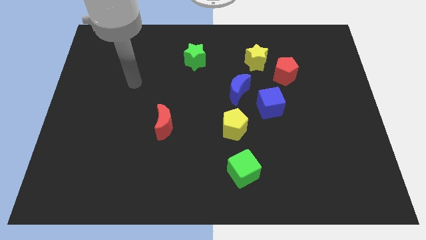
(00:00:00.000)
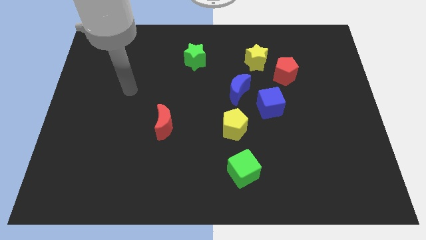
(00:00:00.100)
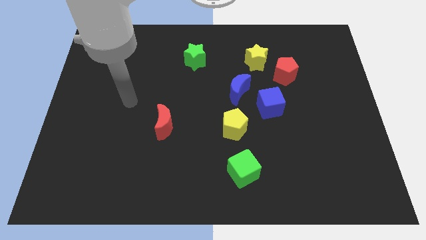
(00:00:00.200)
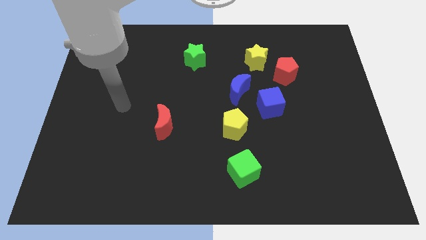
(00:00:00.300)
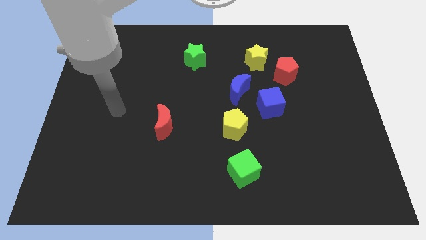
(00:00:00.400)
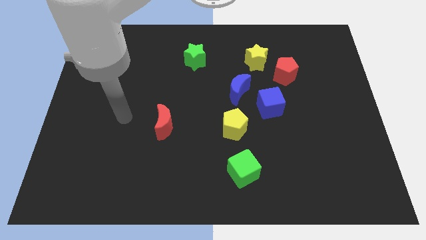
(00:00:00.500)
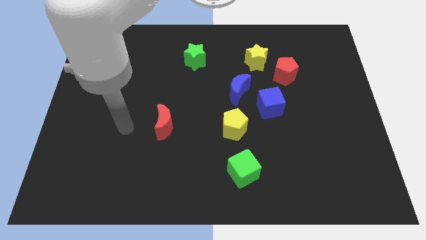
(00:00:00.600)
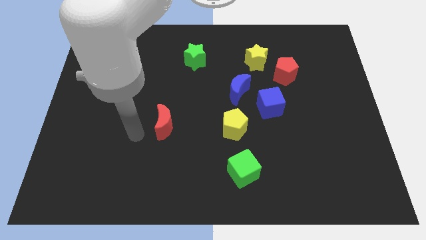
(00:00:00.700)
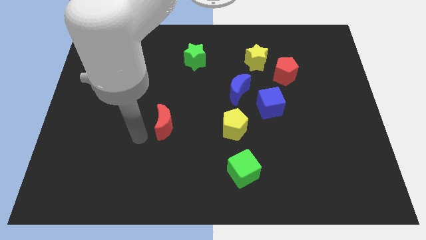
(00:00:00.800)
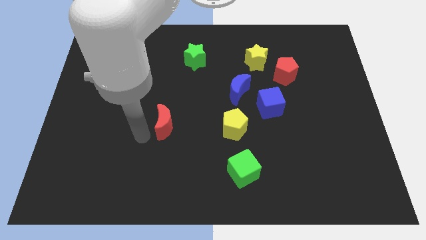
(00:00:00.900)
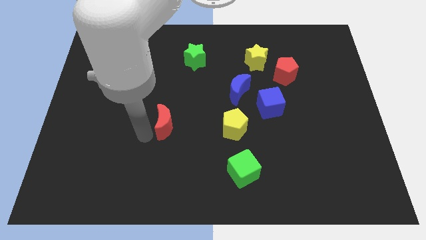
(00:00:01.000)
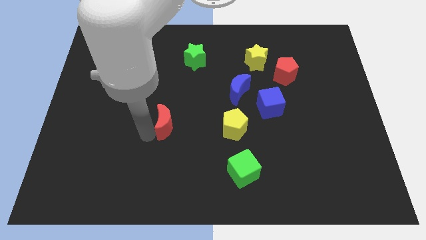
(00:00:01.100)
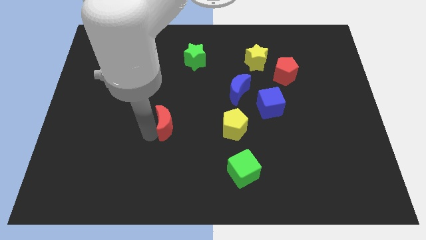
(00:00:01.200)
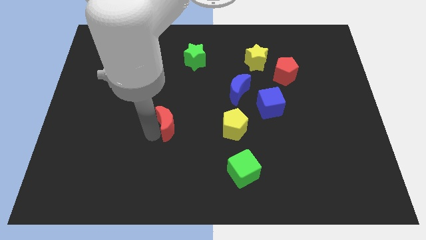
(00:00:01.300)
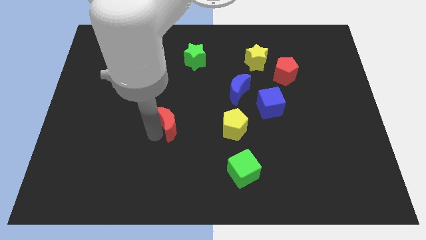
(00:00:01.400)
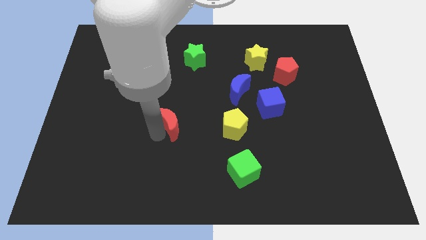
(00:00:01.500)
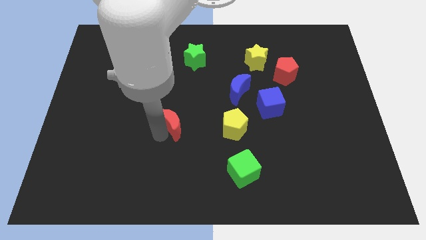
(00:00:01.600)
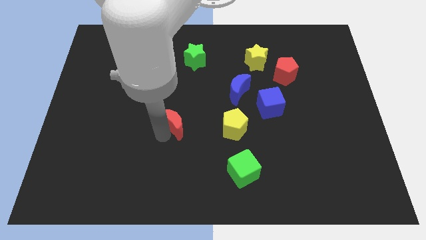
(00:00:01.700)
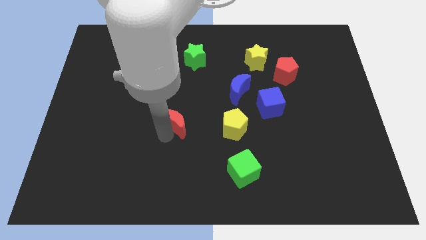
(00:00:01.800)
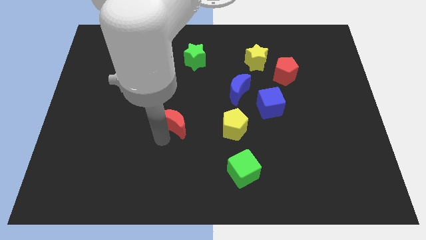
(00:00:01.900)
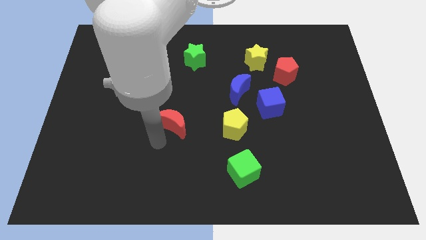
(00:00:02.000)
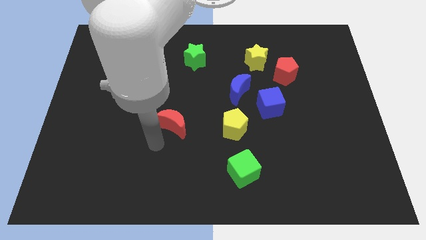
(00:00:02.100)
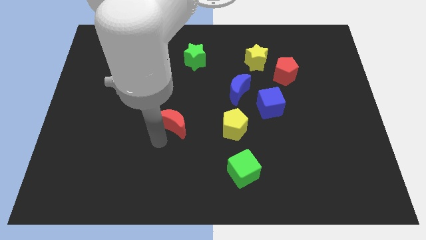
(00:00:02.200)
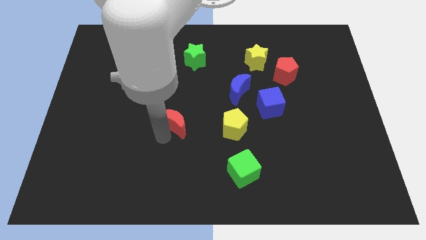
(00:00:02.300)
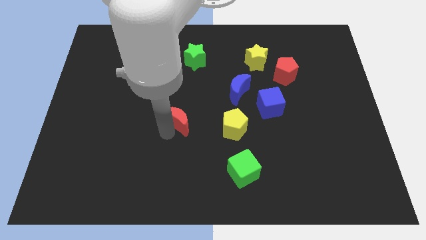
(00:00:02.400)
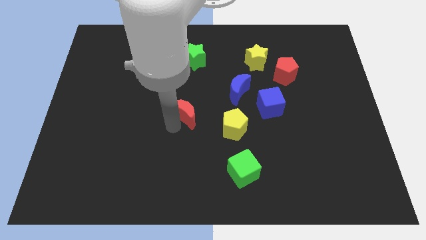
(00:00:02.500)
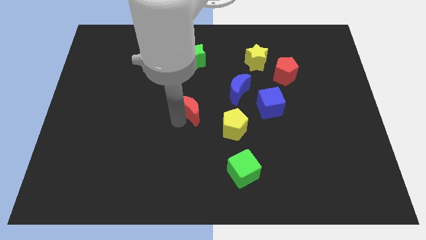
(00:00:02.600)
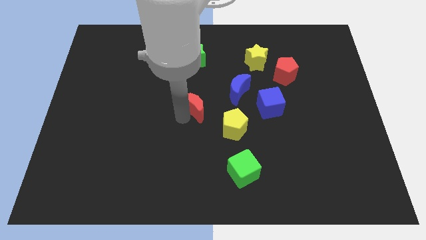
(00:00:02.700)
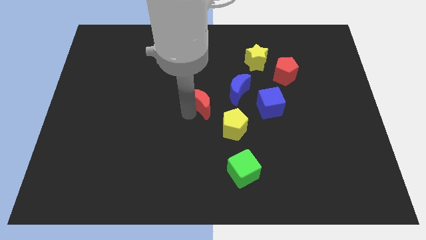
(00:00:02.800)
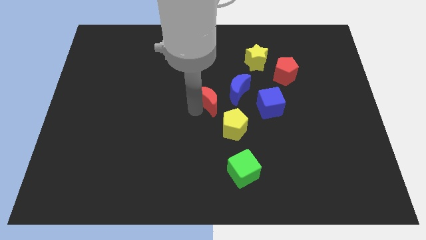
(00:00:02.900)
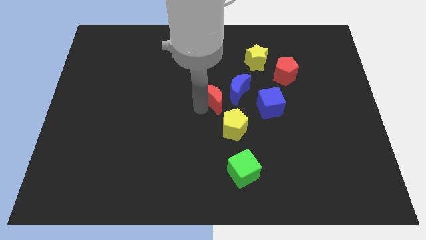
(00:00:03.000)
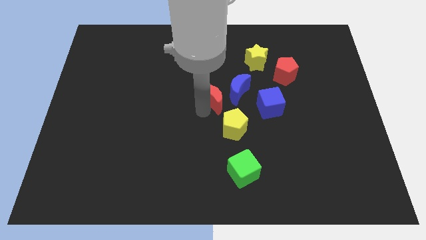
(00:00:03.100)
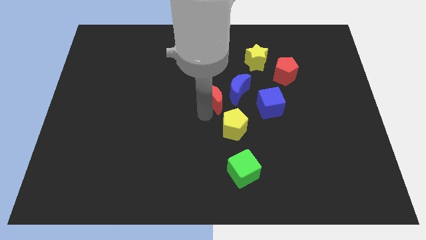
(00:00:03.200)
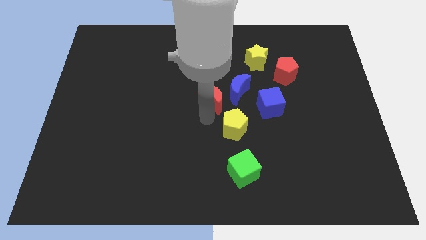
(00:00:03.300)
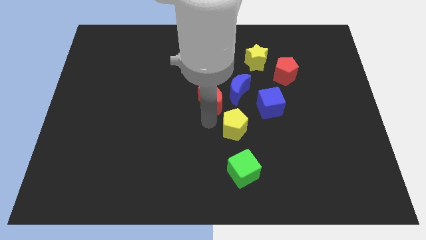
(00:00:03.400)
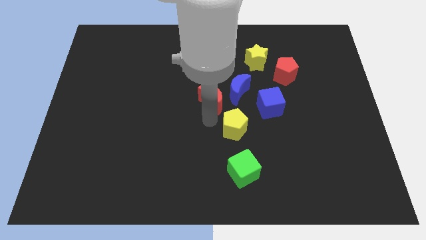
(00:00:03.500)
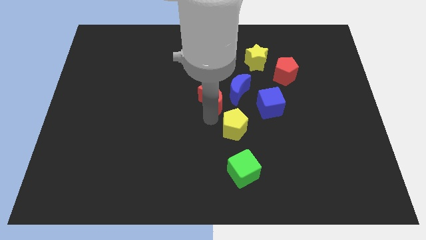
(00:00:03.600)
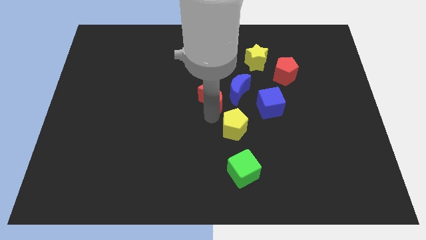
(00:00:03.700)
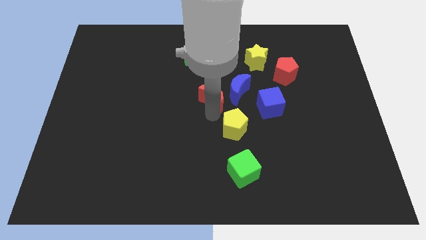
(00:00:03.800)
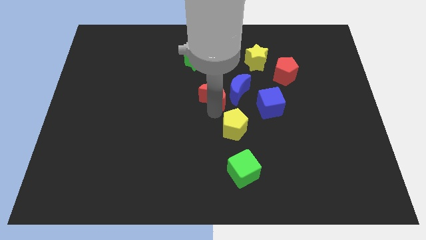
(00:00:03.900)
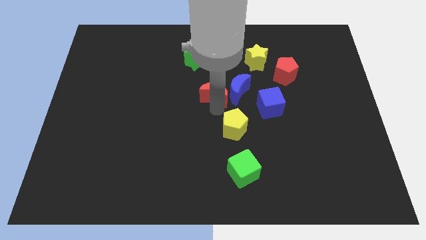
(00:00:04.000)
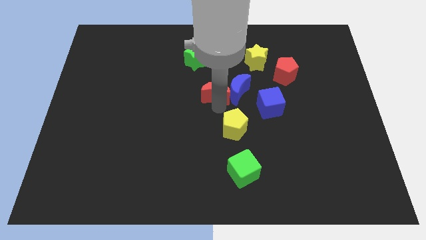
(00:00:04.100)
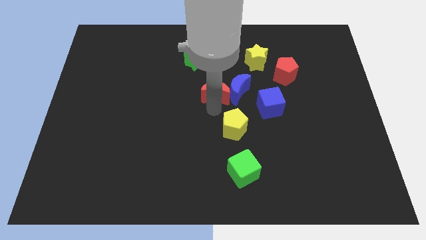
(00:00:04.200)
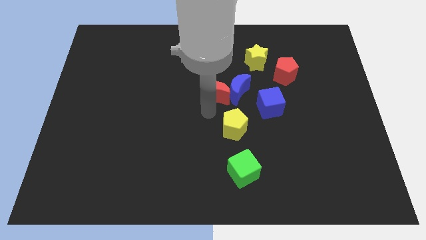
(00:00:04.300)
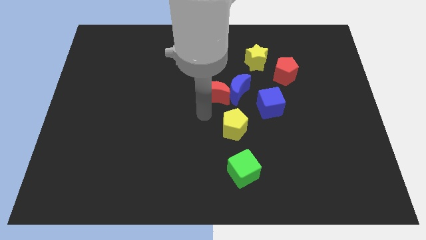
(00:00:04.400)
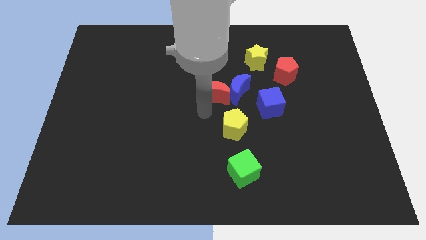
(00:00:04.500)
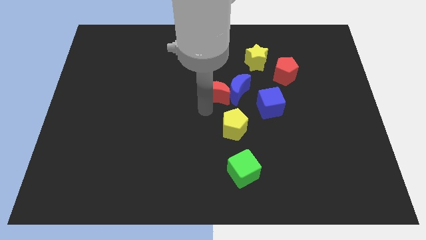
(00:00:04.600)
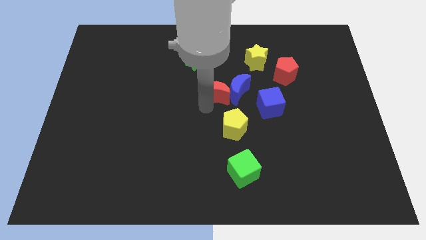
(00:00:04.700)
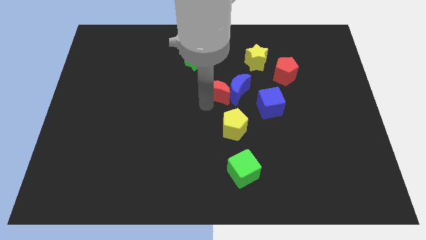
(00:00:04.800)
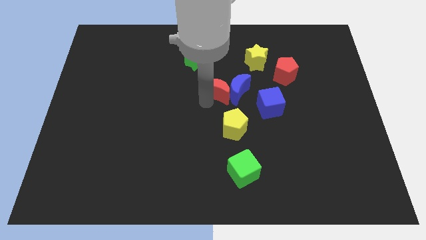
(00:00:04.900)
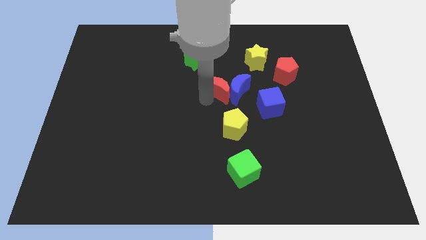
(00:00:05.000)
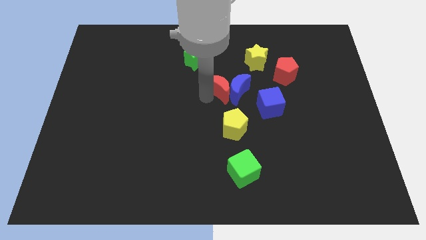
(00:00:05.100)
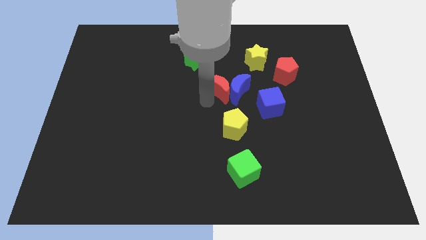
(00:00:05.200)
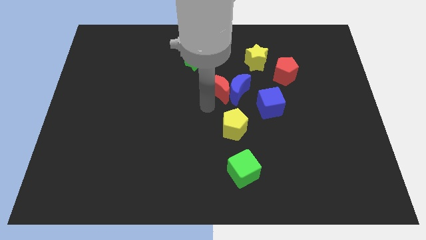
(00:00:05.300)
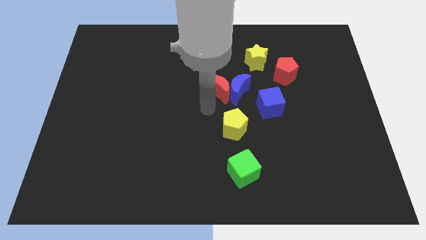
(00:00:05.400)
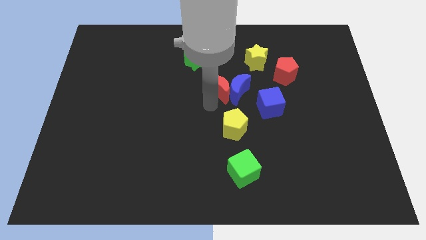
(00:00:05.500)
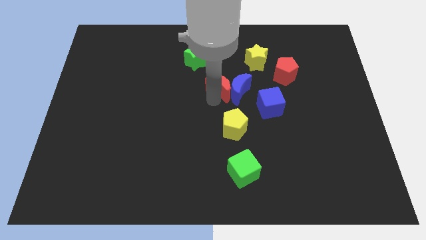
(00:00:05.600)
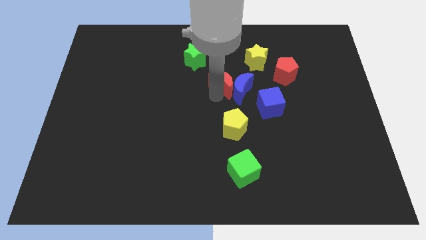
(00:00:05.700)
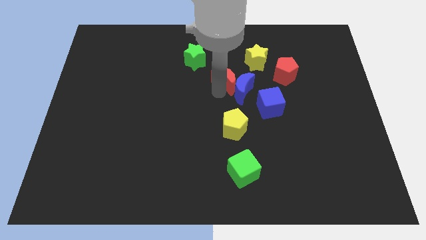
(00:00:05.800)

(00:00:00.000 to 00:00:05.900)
move the red moon to the left of the red pentagon

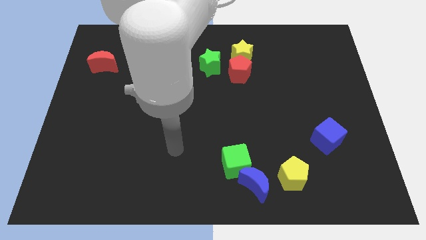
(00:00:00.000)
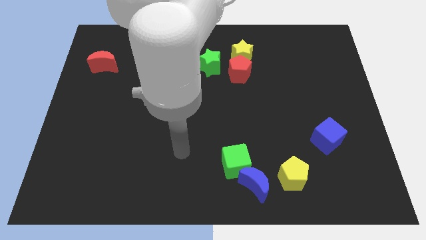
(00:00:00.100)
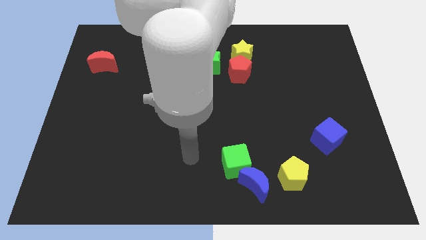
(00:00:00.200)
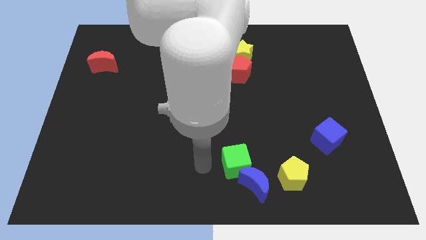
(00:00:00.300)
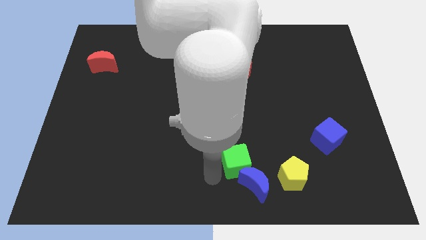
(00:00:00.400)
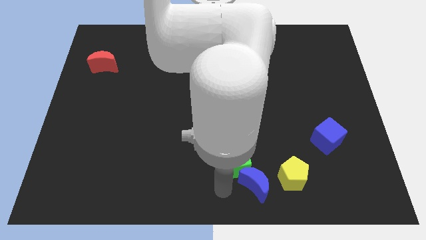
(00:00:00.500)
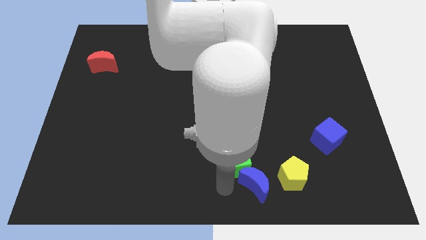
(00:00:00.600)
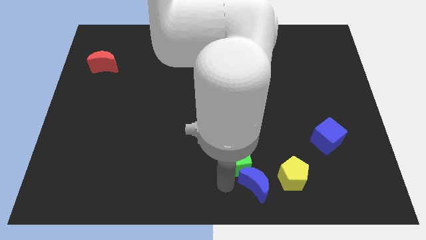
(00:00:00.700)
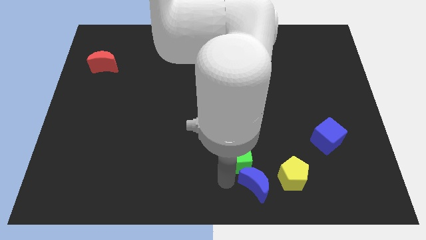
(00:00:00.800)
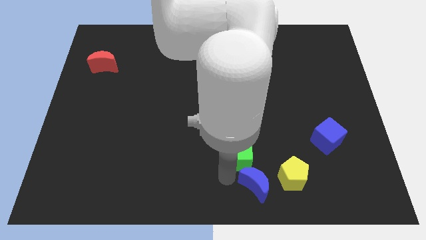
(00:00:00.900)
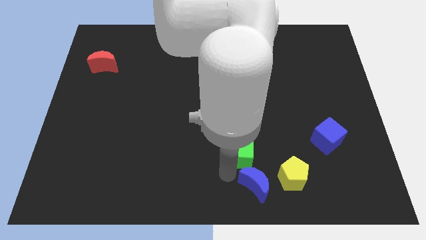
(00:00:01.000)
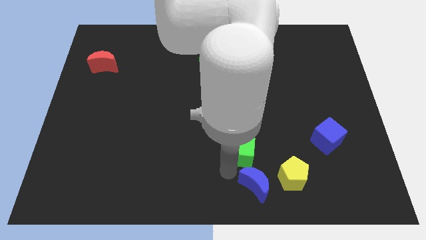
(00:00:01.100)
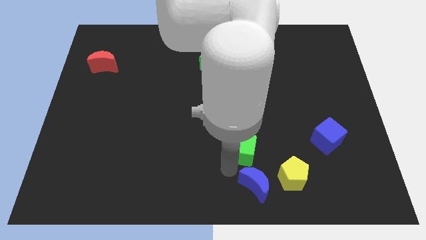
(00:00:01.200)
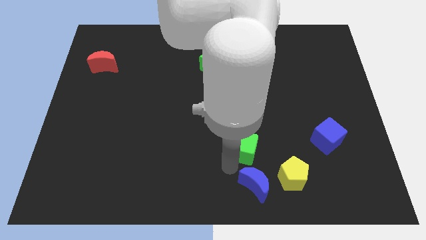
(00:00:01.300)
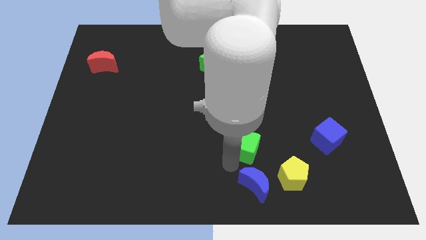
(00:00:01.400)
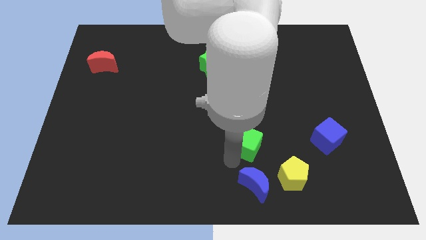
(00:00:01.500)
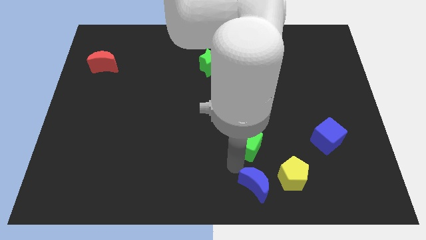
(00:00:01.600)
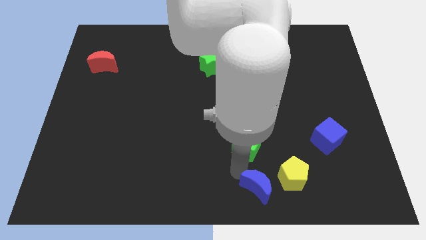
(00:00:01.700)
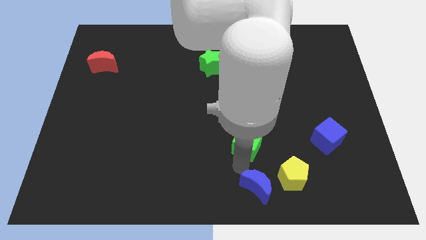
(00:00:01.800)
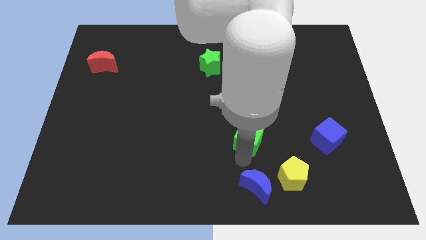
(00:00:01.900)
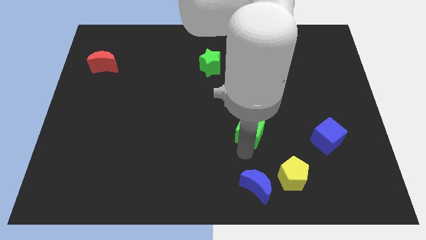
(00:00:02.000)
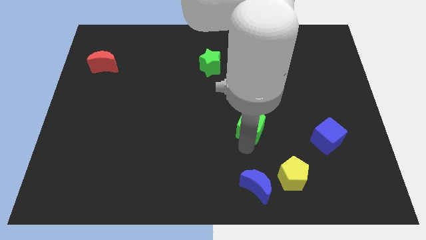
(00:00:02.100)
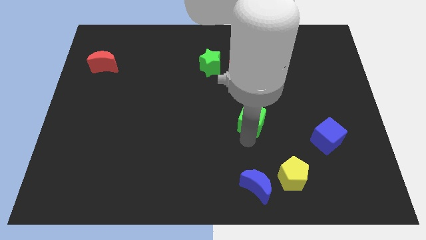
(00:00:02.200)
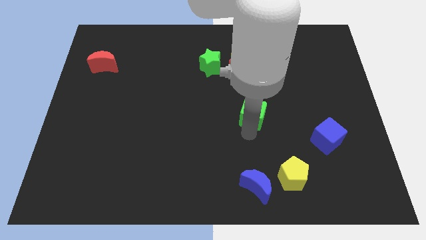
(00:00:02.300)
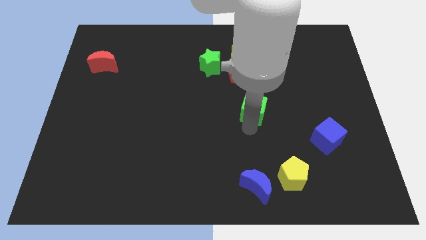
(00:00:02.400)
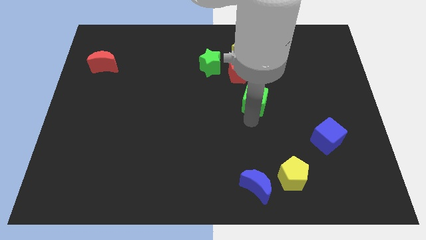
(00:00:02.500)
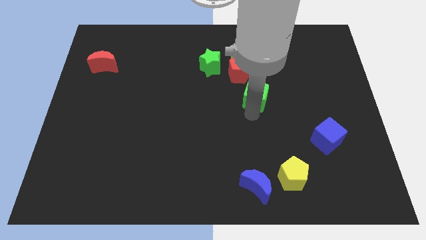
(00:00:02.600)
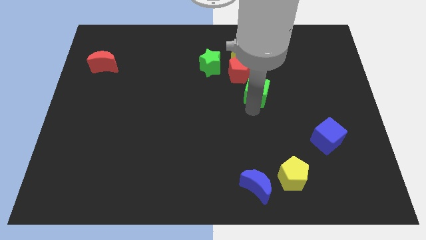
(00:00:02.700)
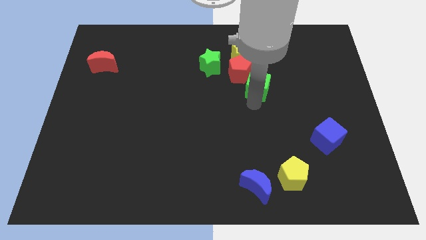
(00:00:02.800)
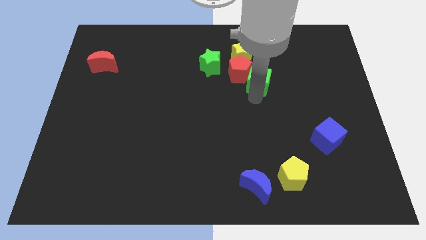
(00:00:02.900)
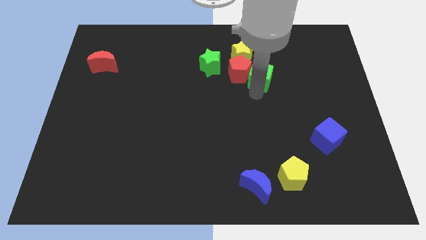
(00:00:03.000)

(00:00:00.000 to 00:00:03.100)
push the green cube right of the green star
